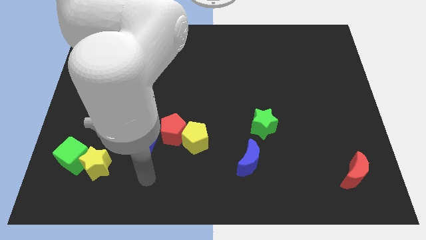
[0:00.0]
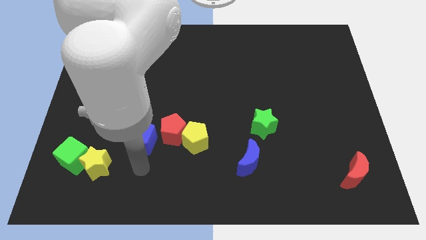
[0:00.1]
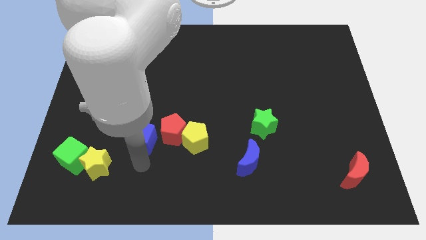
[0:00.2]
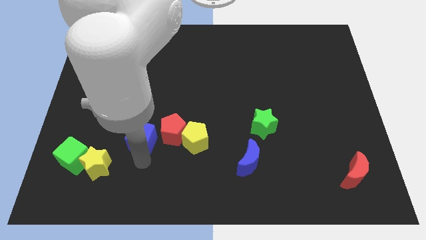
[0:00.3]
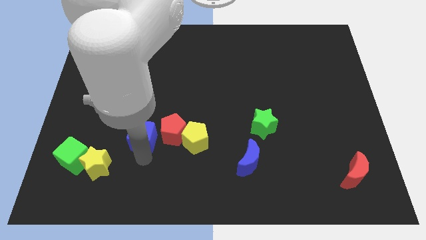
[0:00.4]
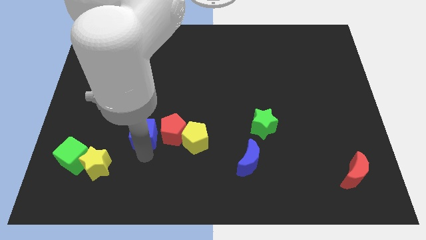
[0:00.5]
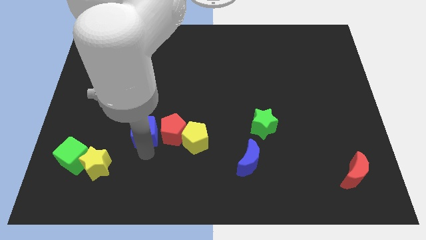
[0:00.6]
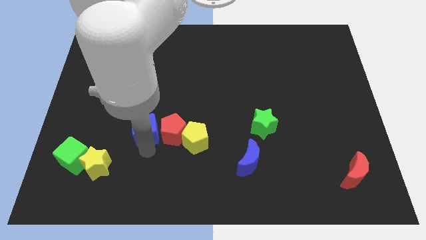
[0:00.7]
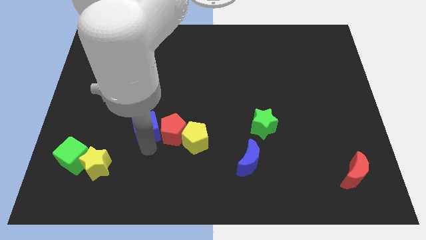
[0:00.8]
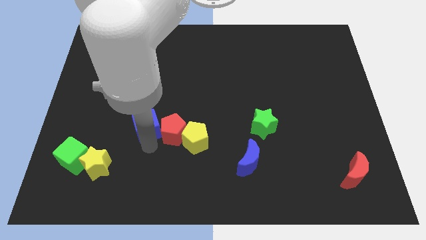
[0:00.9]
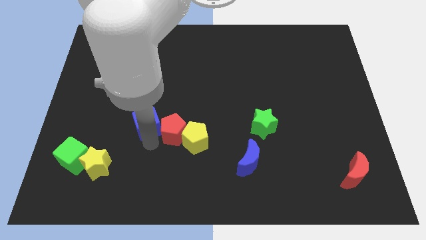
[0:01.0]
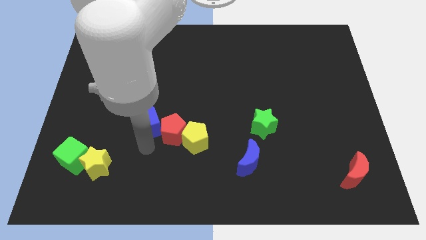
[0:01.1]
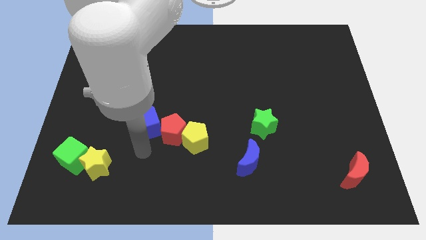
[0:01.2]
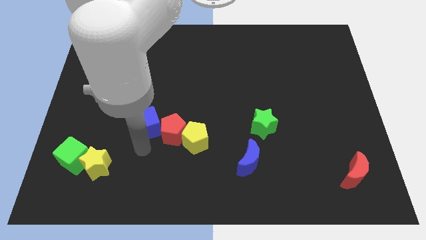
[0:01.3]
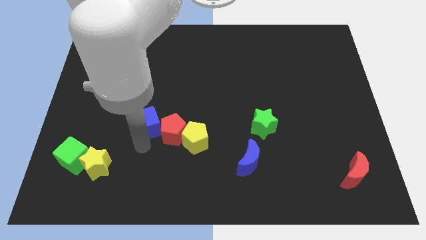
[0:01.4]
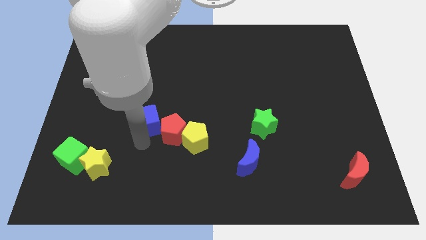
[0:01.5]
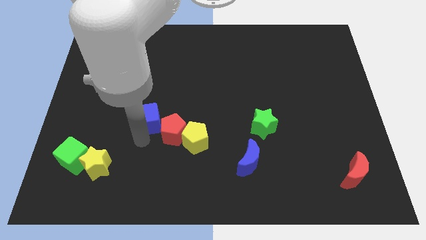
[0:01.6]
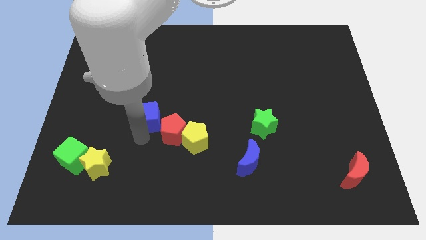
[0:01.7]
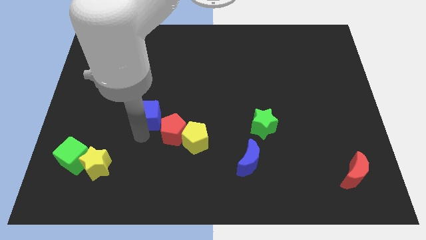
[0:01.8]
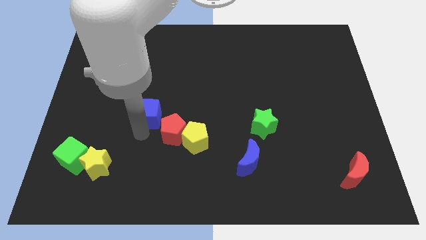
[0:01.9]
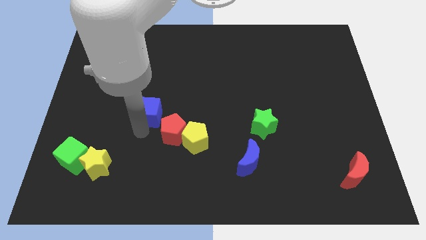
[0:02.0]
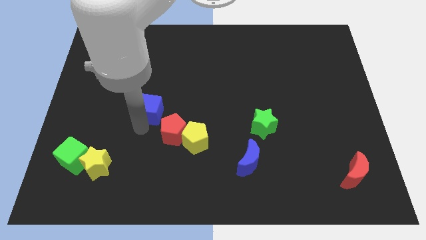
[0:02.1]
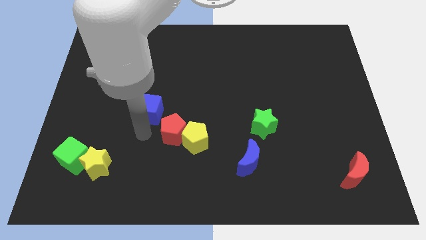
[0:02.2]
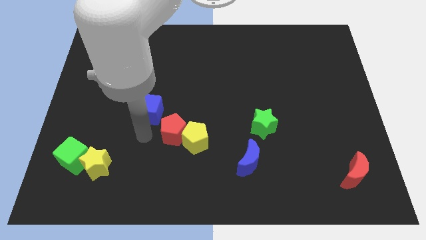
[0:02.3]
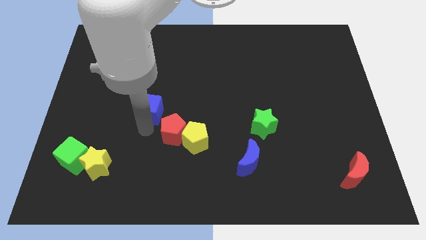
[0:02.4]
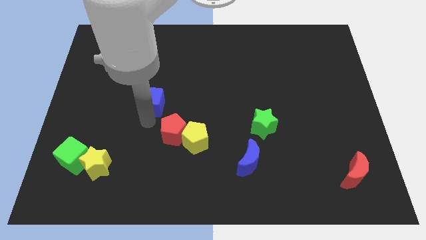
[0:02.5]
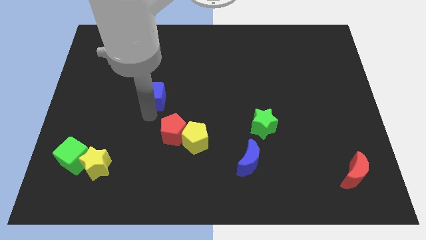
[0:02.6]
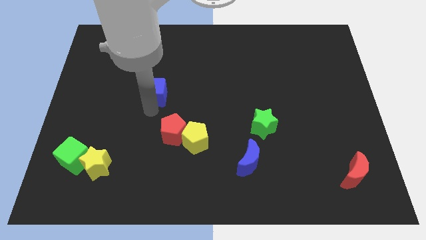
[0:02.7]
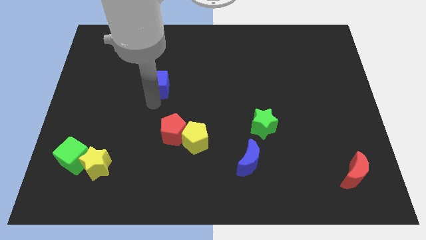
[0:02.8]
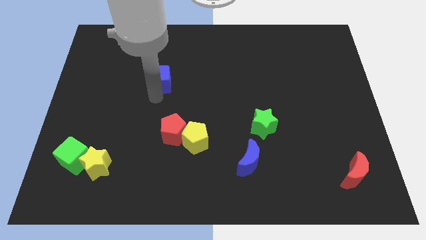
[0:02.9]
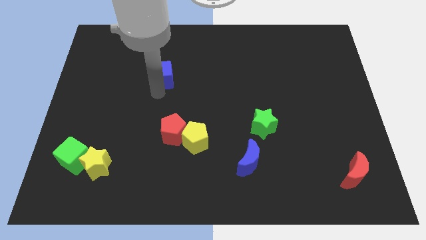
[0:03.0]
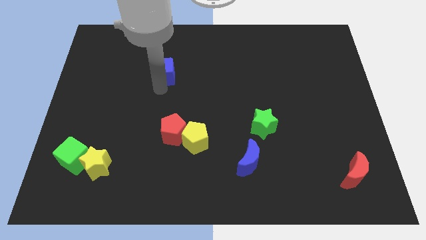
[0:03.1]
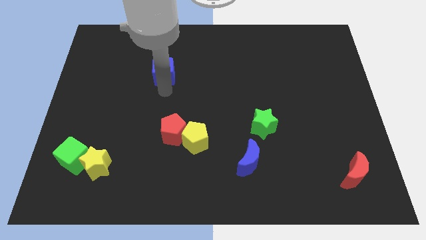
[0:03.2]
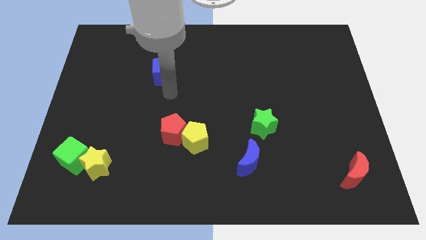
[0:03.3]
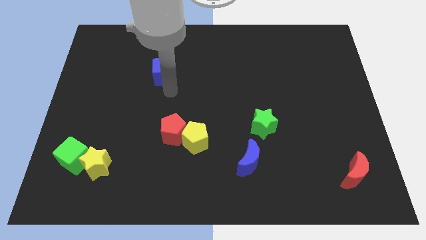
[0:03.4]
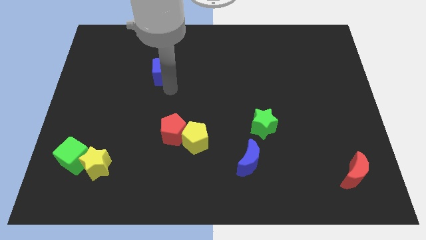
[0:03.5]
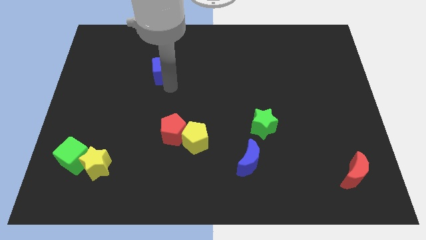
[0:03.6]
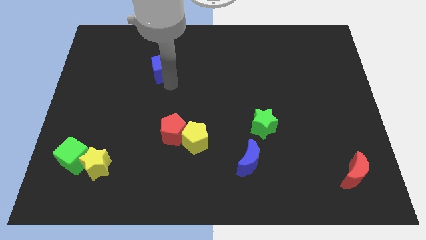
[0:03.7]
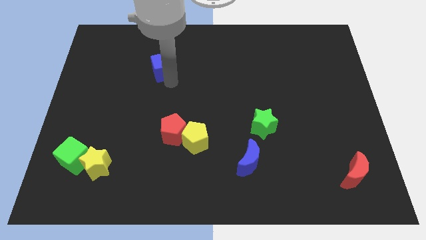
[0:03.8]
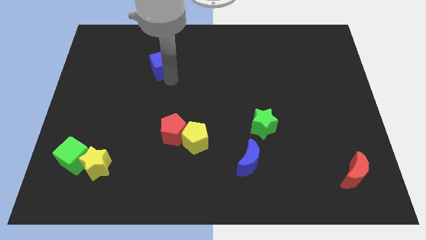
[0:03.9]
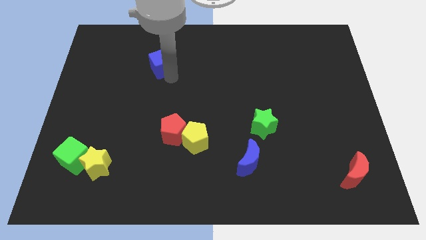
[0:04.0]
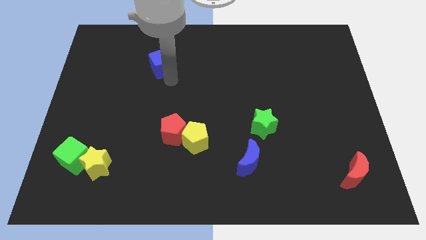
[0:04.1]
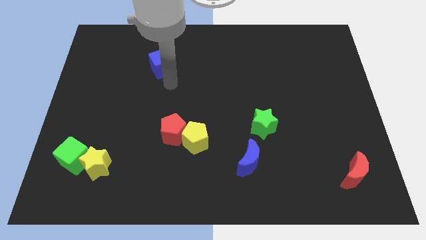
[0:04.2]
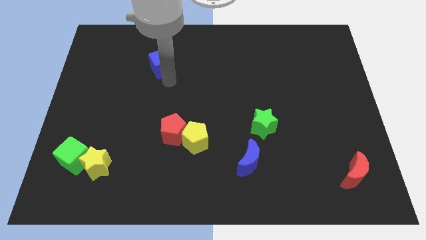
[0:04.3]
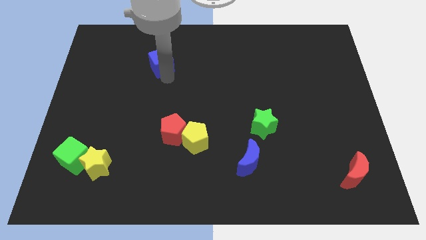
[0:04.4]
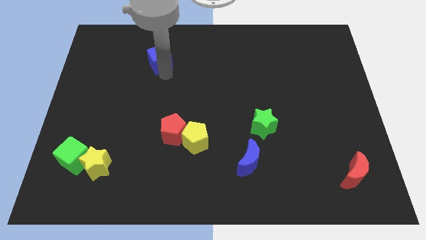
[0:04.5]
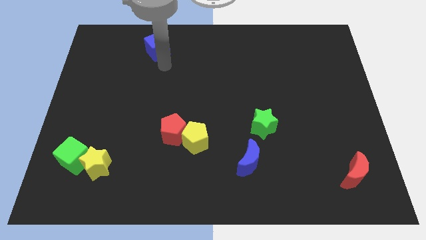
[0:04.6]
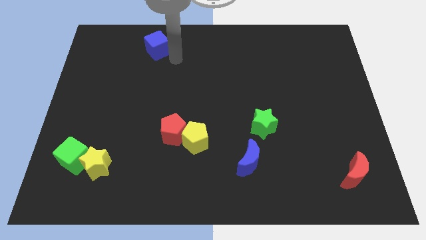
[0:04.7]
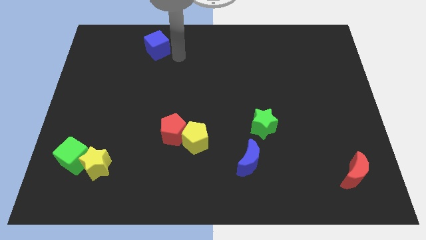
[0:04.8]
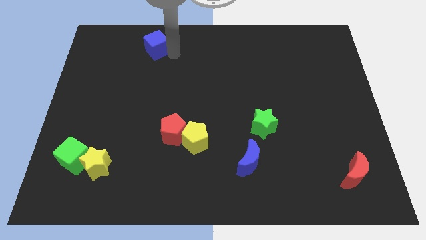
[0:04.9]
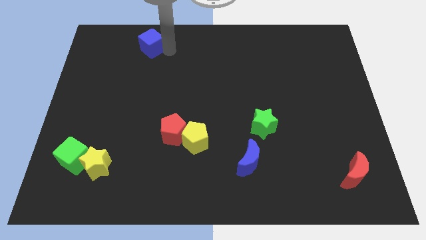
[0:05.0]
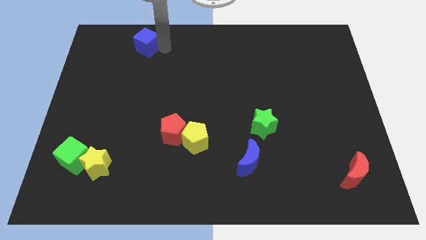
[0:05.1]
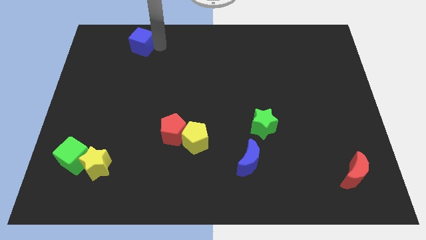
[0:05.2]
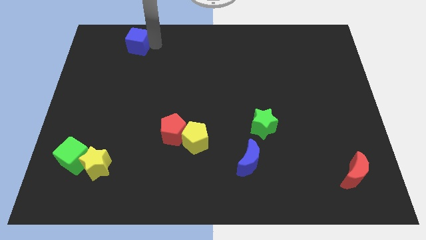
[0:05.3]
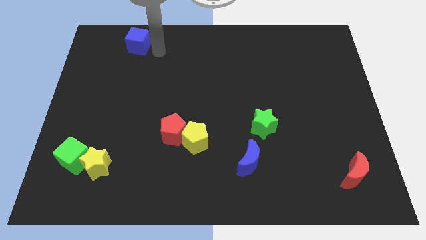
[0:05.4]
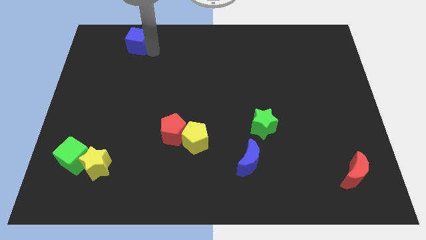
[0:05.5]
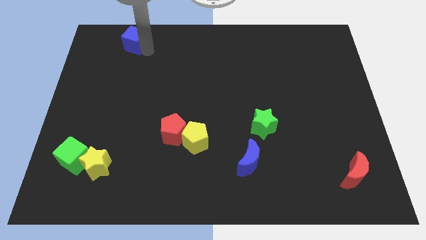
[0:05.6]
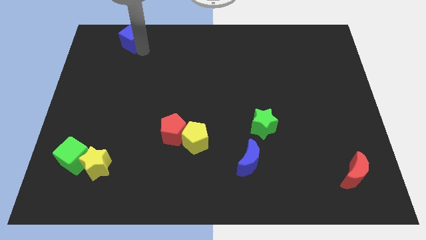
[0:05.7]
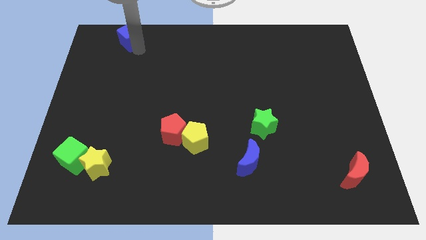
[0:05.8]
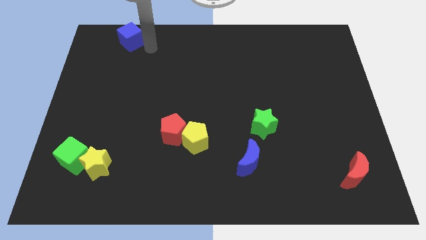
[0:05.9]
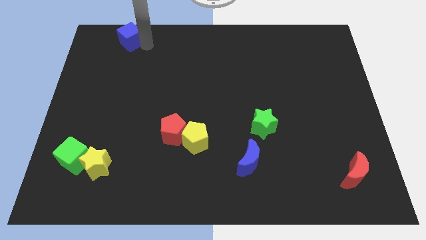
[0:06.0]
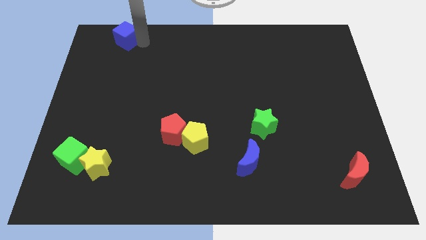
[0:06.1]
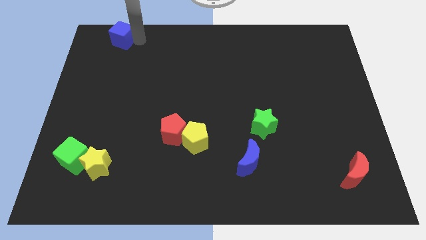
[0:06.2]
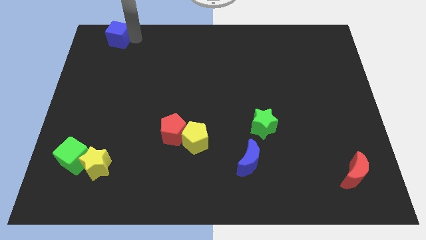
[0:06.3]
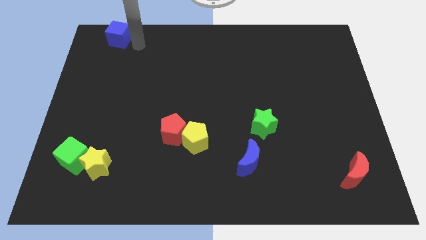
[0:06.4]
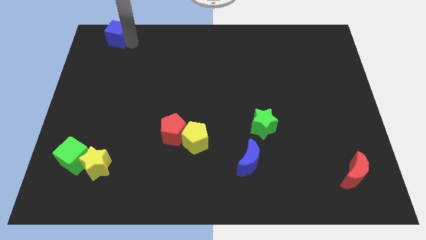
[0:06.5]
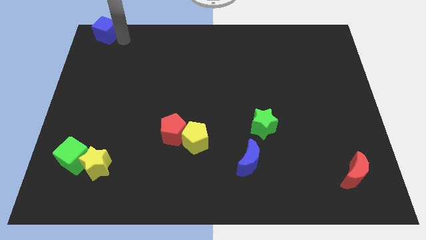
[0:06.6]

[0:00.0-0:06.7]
put the blue cube to the top left corner

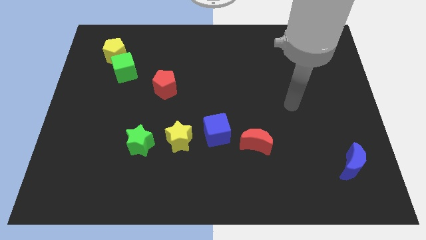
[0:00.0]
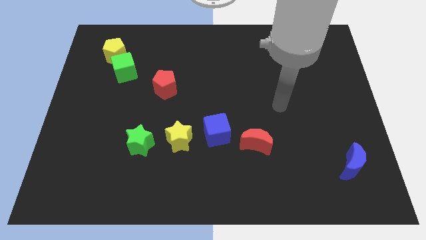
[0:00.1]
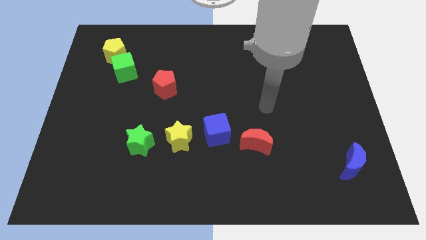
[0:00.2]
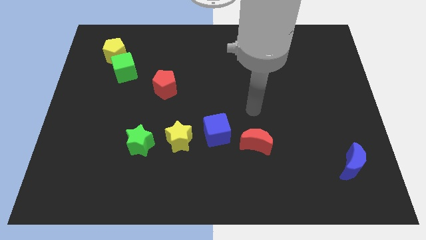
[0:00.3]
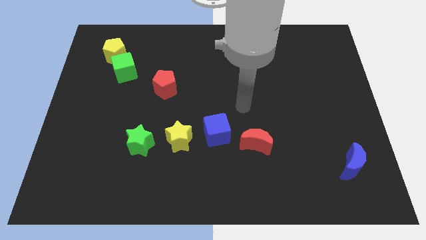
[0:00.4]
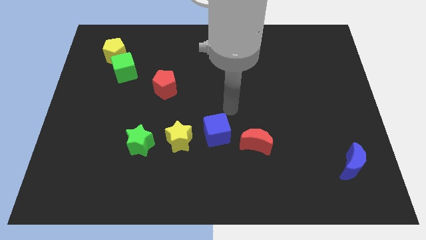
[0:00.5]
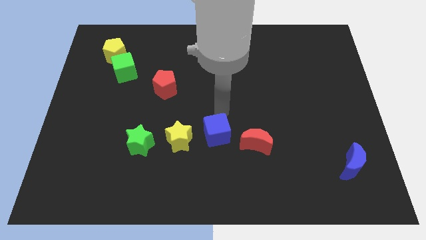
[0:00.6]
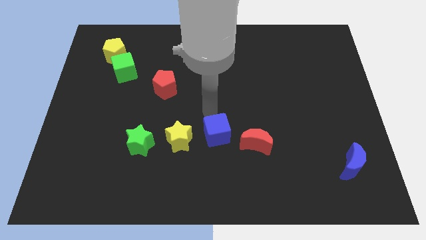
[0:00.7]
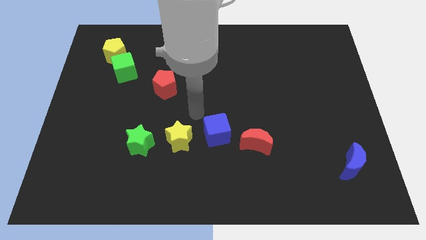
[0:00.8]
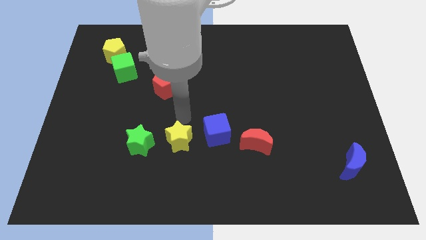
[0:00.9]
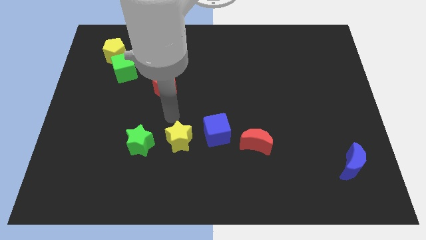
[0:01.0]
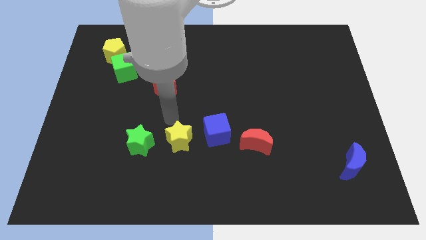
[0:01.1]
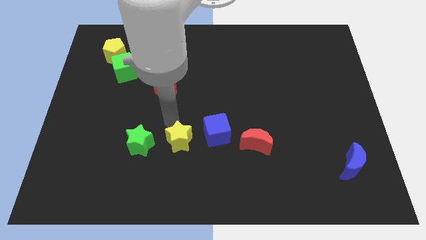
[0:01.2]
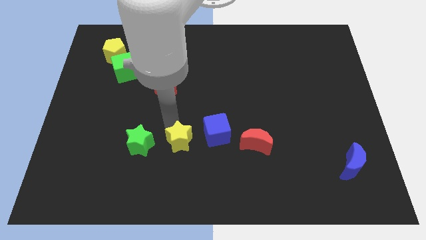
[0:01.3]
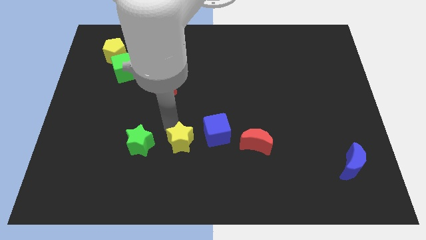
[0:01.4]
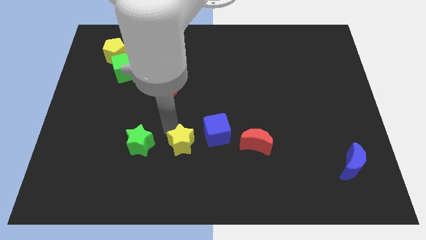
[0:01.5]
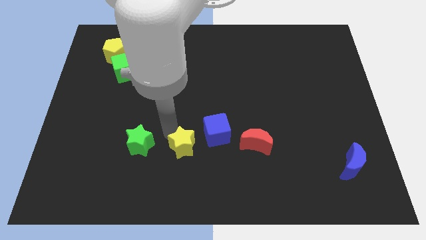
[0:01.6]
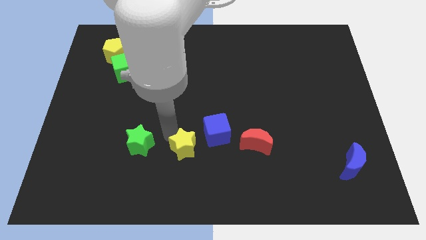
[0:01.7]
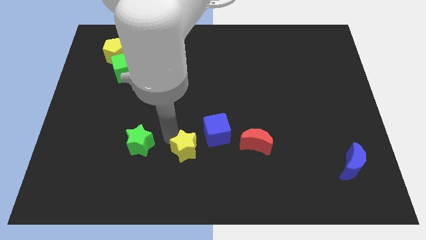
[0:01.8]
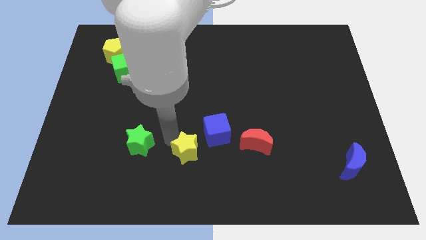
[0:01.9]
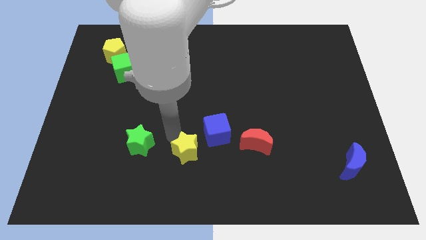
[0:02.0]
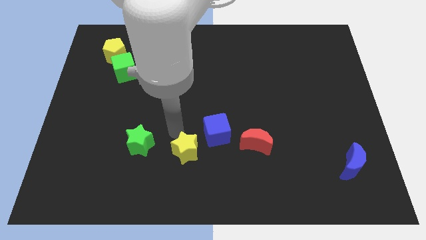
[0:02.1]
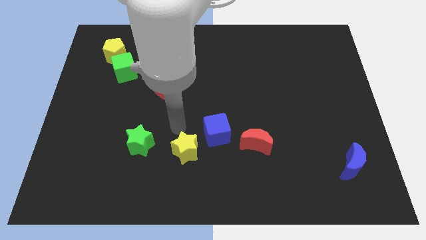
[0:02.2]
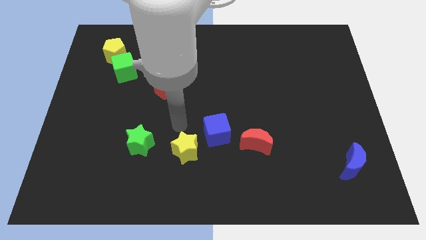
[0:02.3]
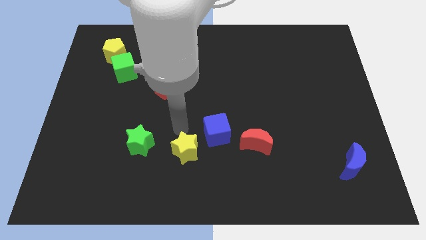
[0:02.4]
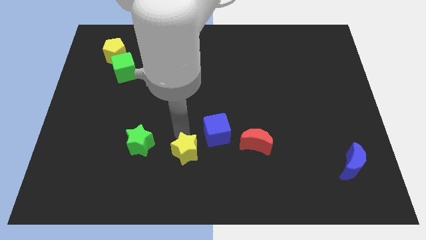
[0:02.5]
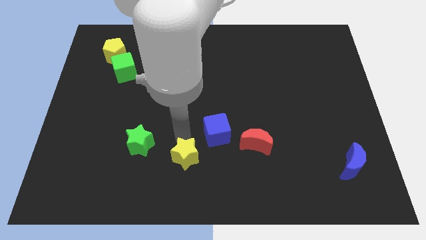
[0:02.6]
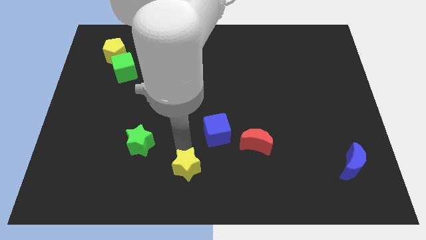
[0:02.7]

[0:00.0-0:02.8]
put the yellow star to the bottom side
